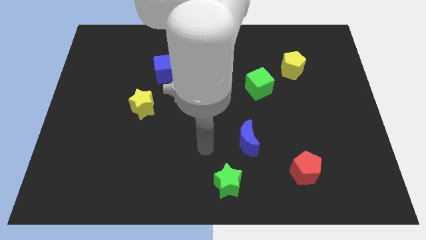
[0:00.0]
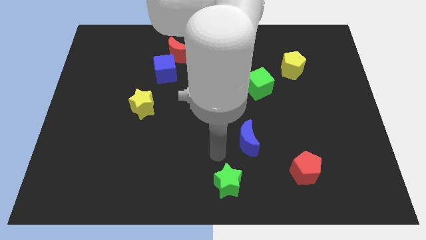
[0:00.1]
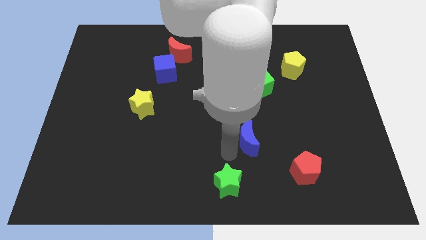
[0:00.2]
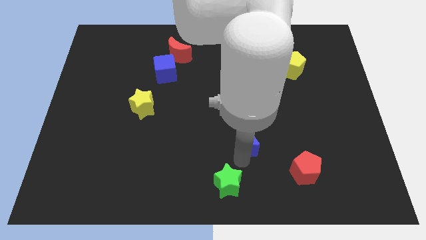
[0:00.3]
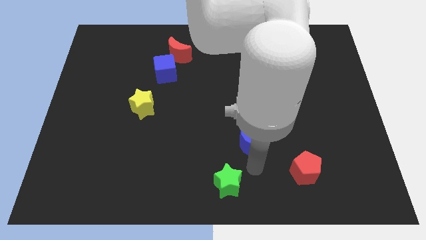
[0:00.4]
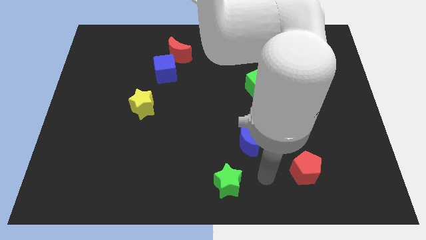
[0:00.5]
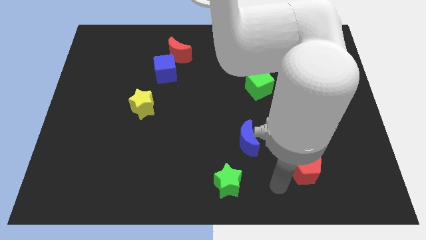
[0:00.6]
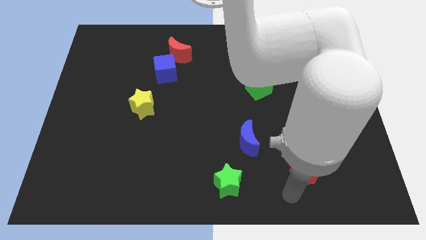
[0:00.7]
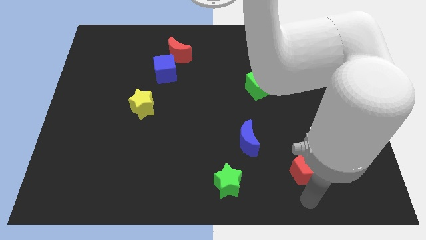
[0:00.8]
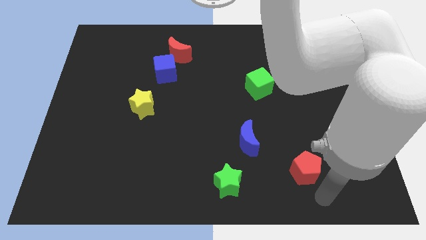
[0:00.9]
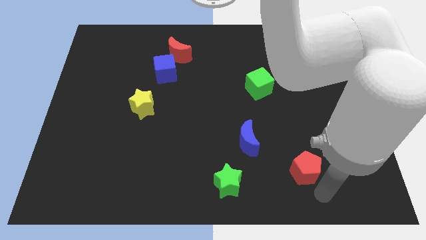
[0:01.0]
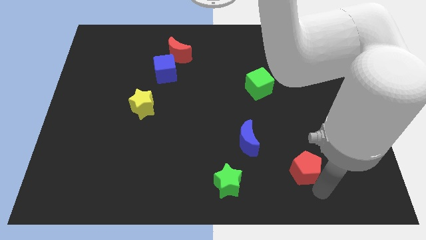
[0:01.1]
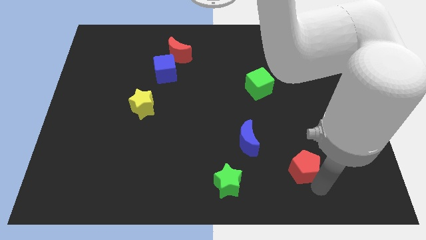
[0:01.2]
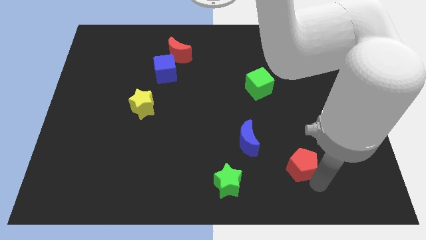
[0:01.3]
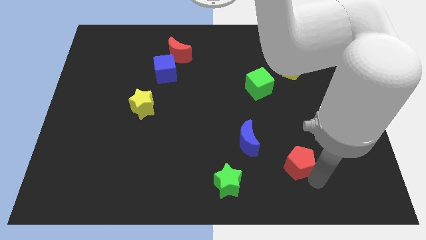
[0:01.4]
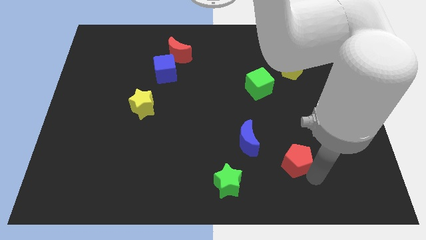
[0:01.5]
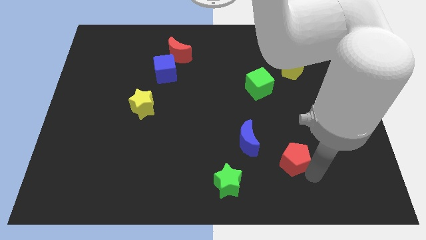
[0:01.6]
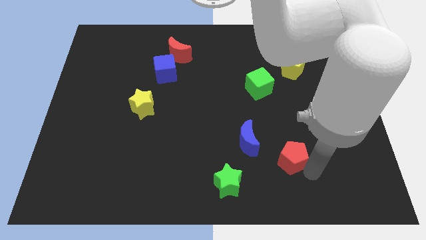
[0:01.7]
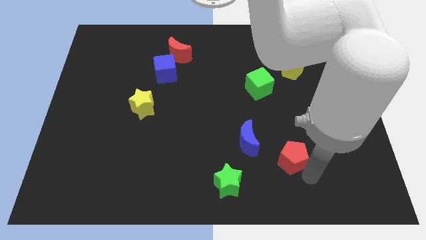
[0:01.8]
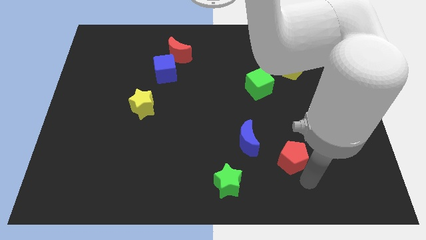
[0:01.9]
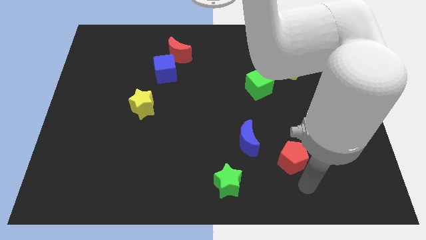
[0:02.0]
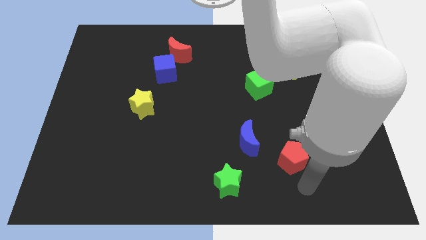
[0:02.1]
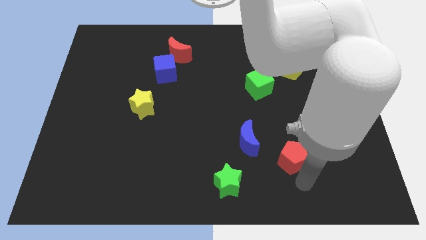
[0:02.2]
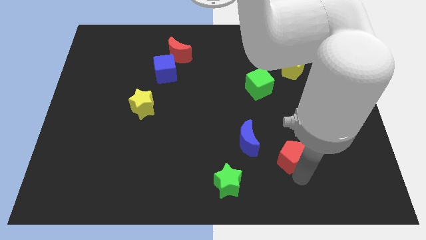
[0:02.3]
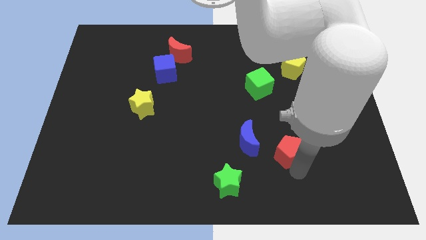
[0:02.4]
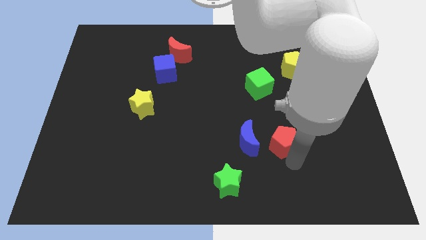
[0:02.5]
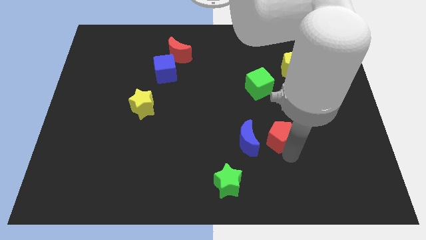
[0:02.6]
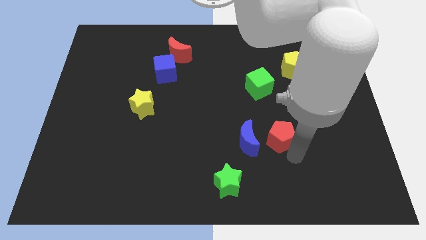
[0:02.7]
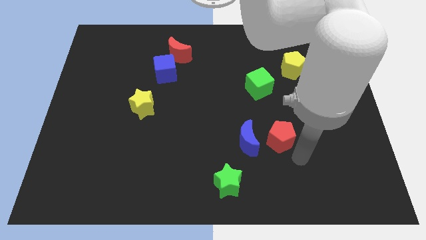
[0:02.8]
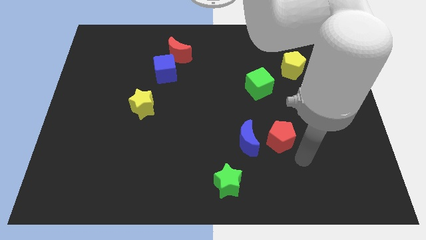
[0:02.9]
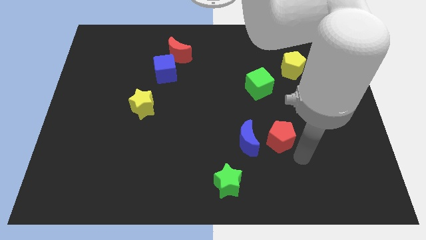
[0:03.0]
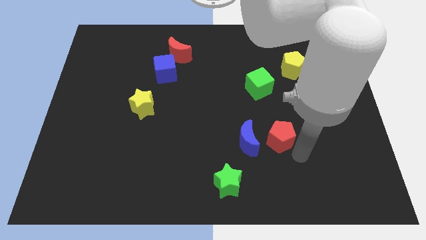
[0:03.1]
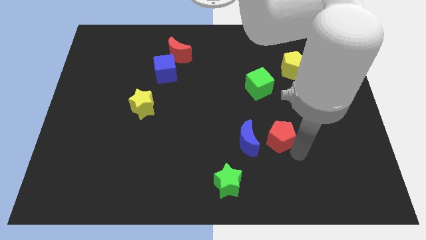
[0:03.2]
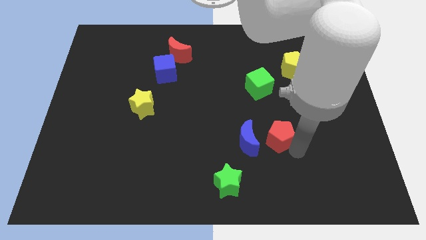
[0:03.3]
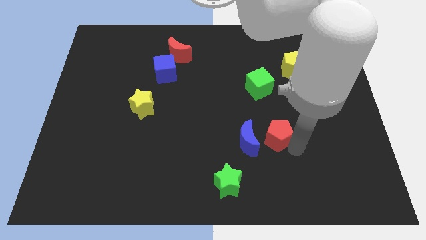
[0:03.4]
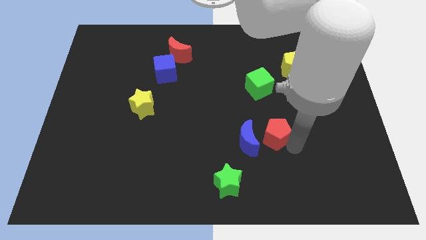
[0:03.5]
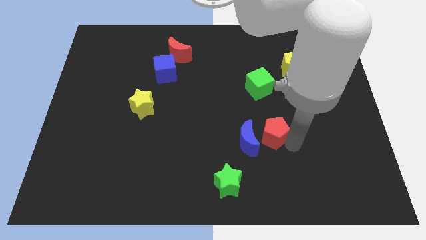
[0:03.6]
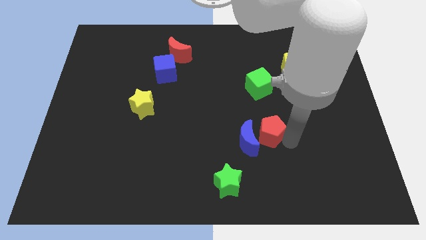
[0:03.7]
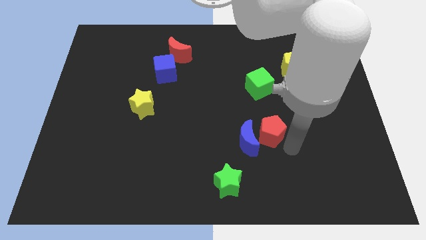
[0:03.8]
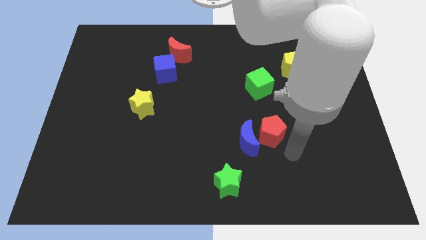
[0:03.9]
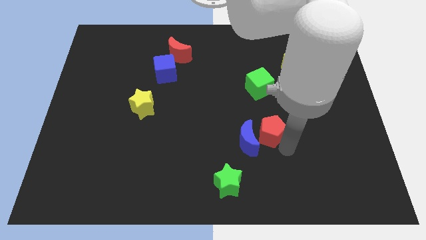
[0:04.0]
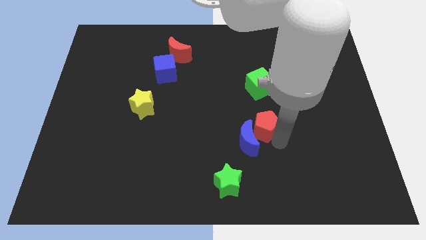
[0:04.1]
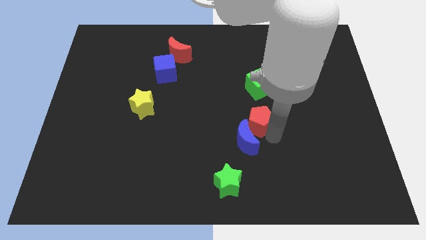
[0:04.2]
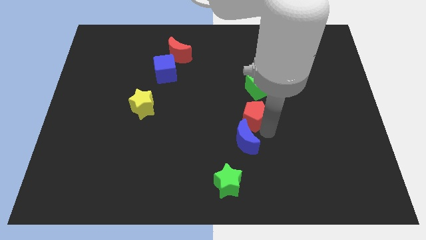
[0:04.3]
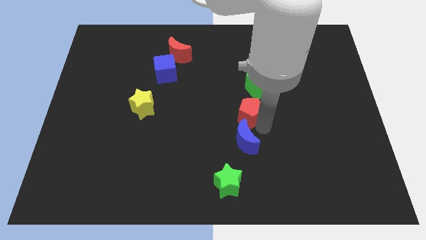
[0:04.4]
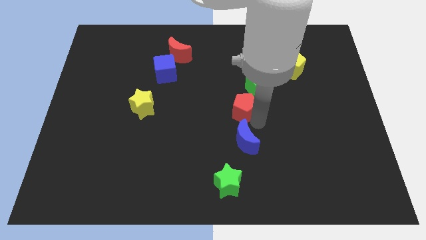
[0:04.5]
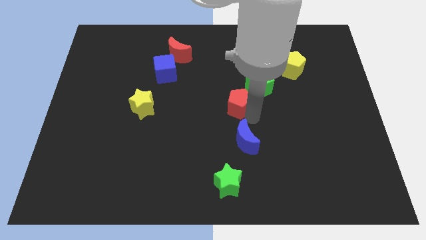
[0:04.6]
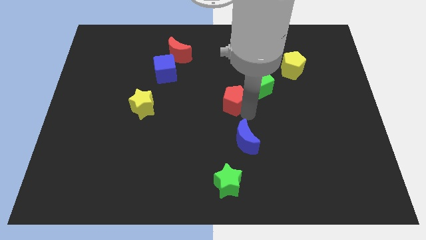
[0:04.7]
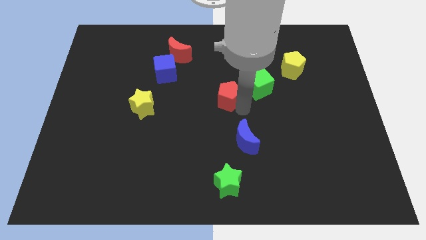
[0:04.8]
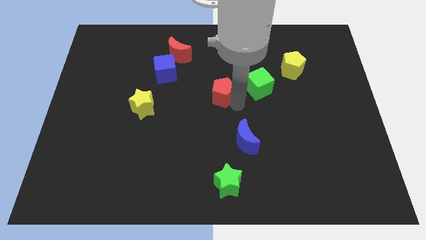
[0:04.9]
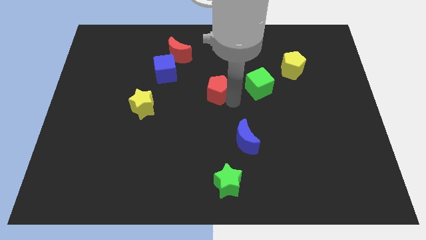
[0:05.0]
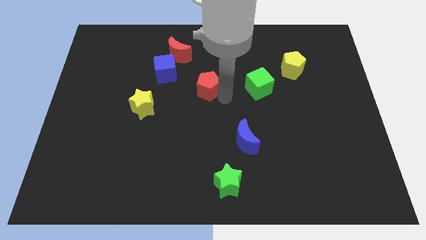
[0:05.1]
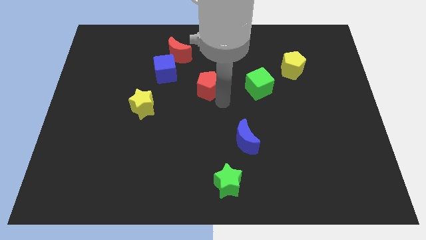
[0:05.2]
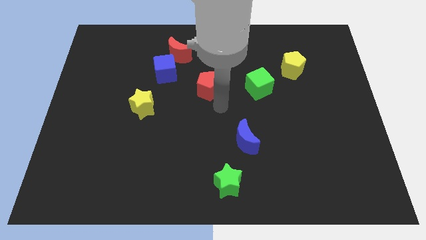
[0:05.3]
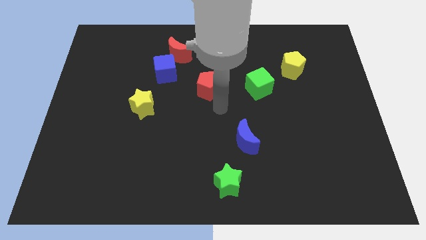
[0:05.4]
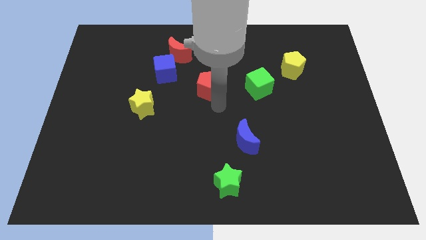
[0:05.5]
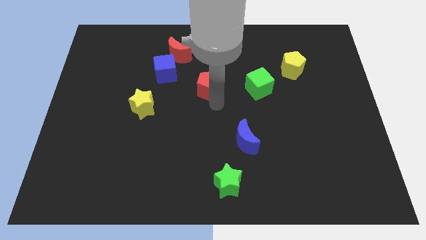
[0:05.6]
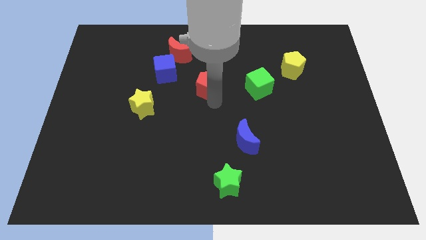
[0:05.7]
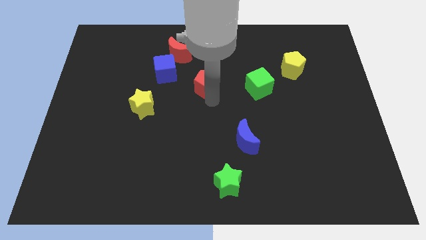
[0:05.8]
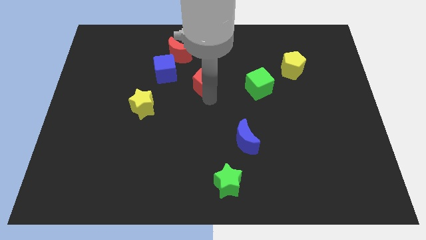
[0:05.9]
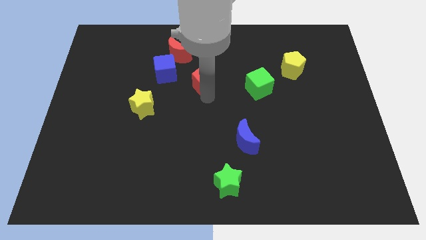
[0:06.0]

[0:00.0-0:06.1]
put the red pentagon diagonally down and to the right of the red moon
